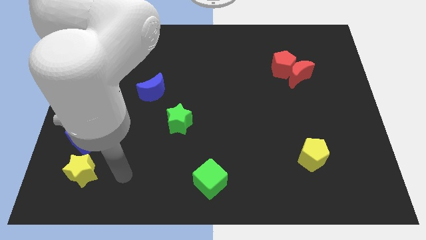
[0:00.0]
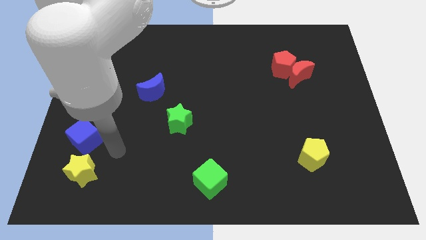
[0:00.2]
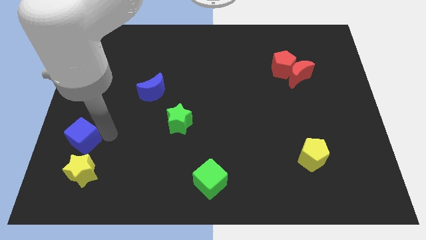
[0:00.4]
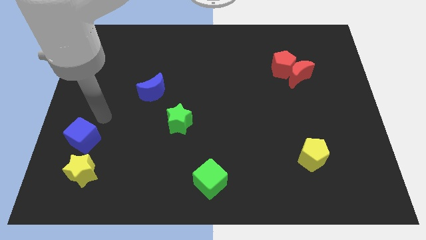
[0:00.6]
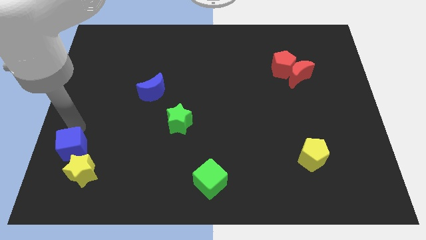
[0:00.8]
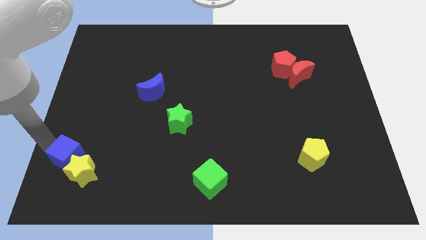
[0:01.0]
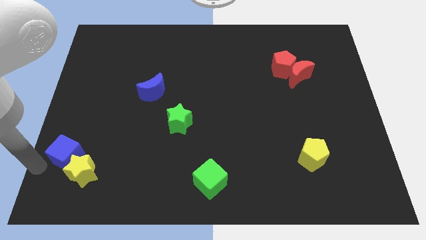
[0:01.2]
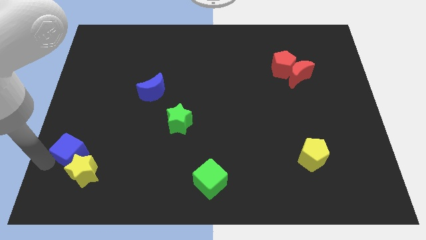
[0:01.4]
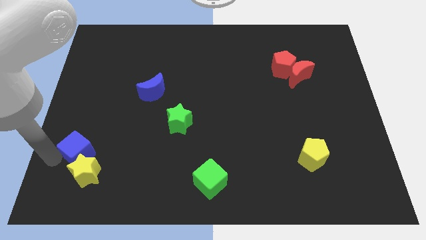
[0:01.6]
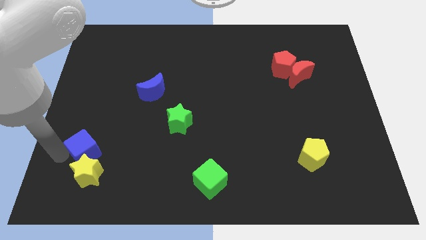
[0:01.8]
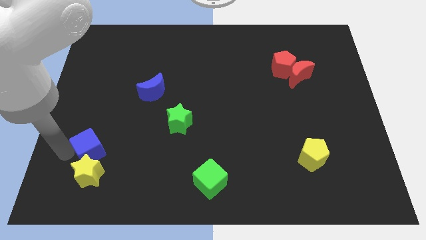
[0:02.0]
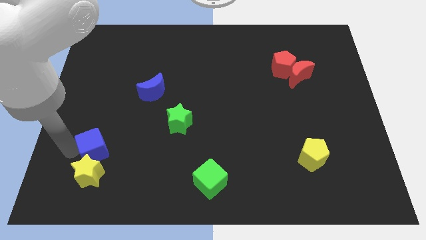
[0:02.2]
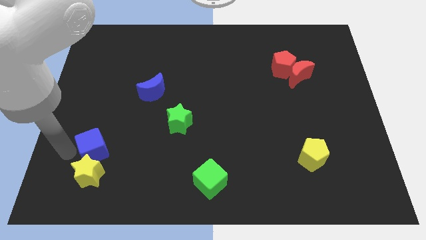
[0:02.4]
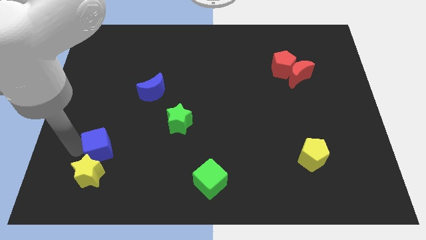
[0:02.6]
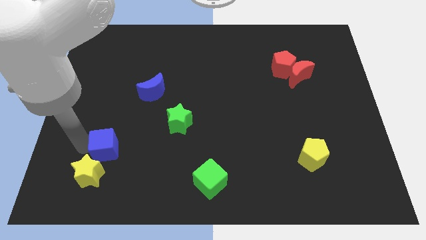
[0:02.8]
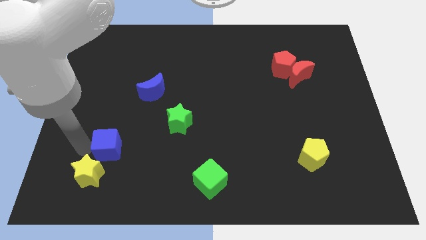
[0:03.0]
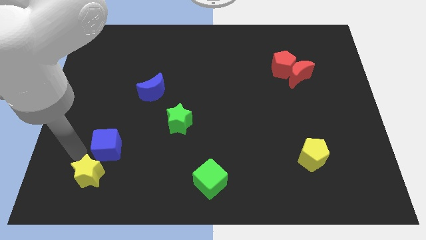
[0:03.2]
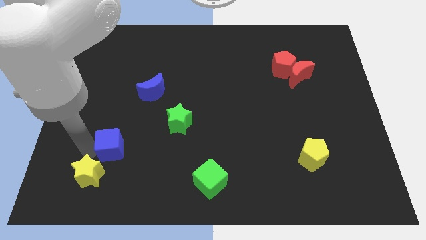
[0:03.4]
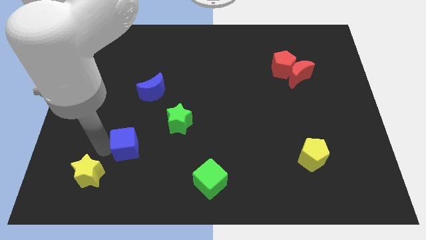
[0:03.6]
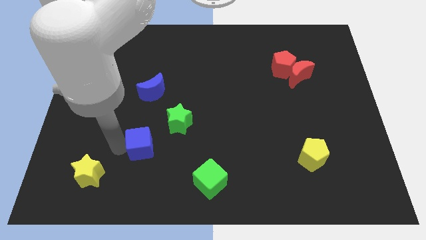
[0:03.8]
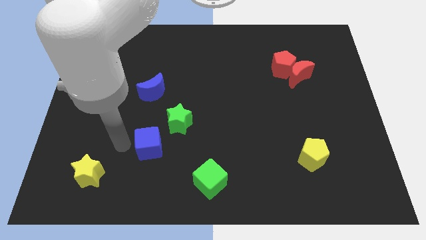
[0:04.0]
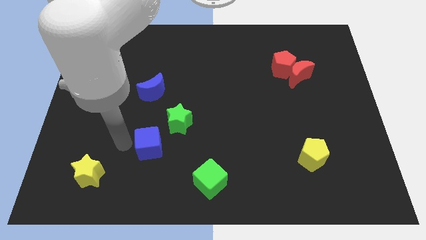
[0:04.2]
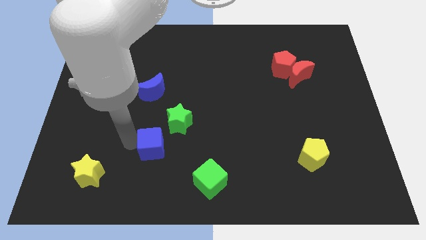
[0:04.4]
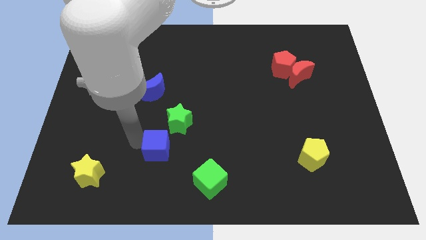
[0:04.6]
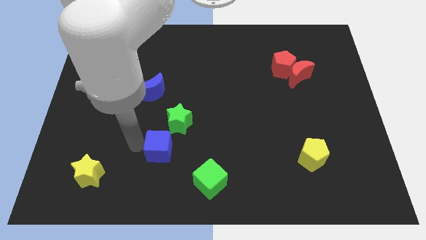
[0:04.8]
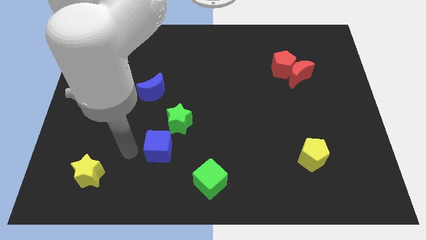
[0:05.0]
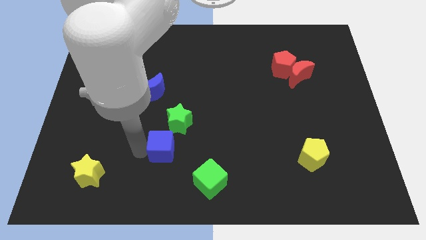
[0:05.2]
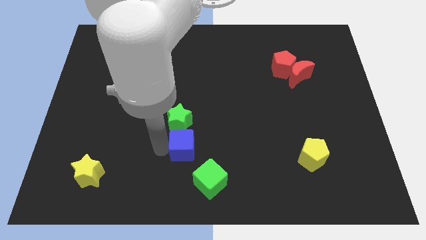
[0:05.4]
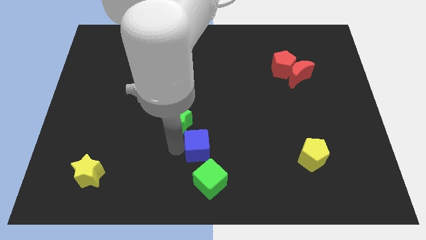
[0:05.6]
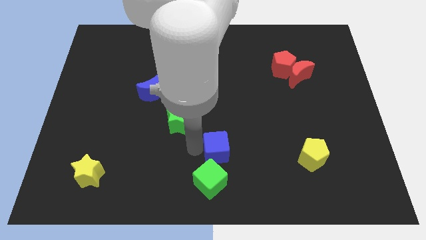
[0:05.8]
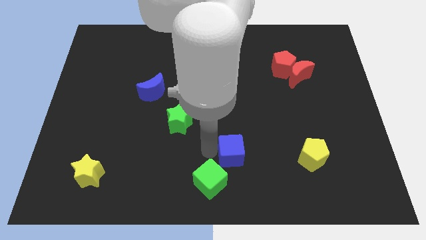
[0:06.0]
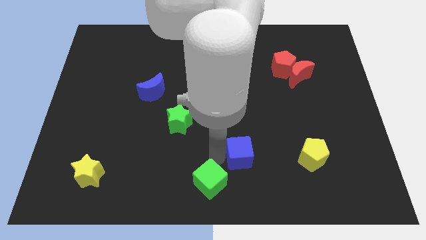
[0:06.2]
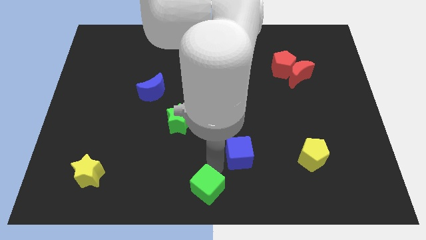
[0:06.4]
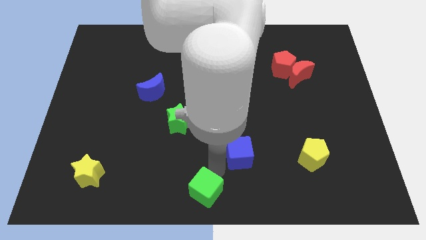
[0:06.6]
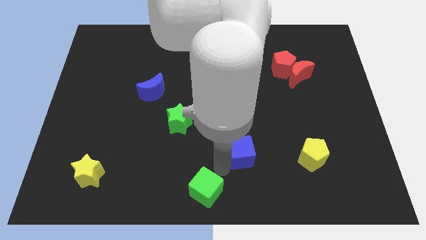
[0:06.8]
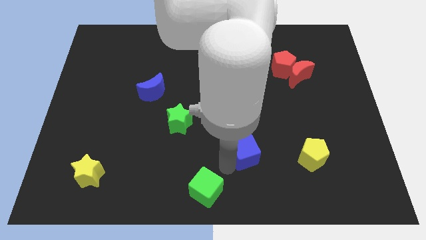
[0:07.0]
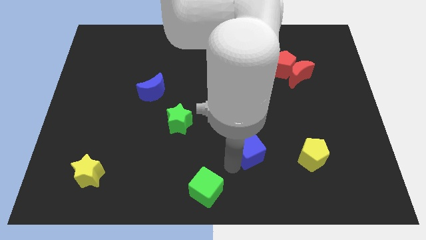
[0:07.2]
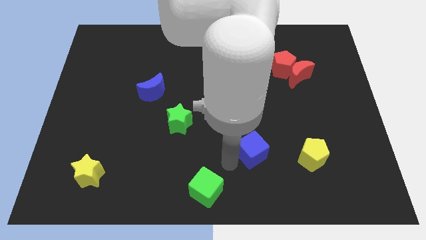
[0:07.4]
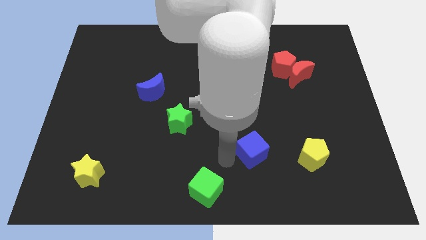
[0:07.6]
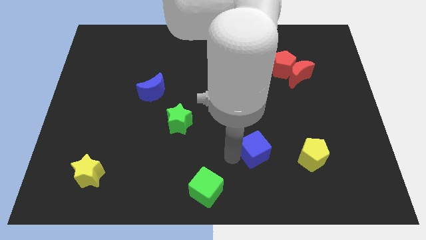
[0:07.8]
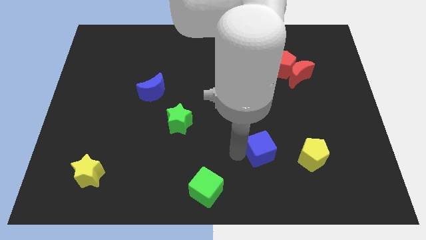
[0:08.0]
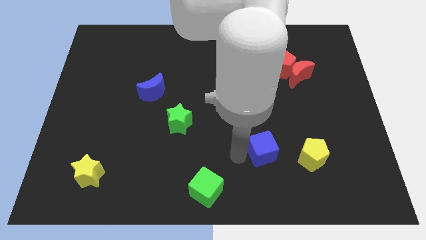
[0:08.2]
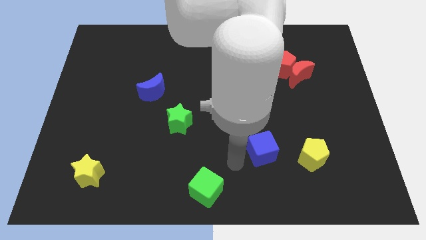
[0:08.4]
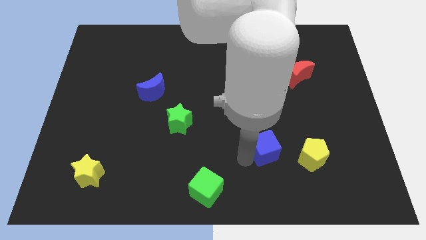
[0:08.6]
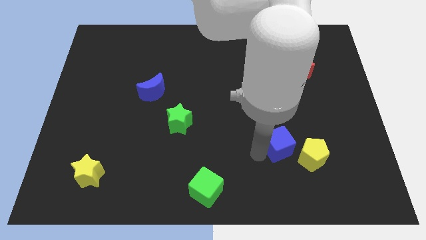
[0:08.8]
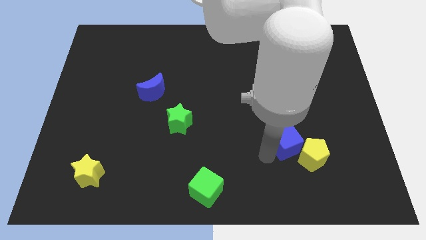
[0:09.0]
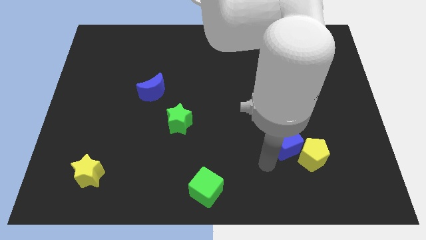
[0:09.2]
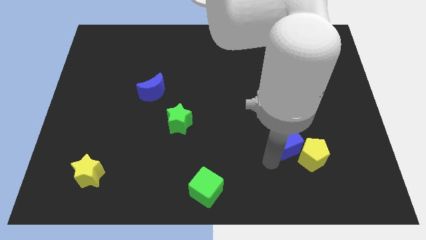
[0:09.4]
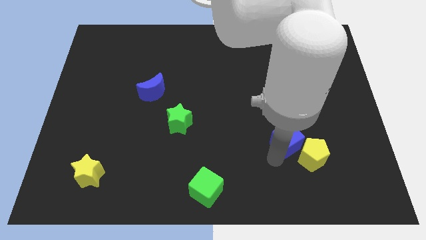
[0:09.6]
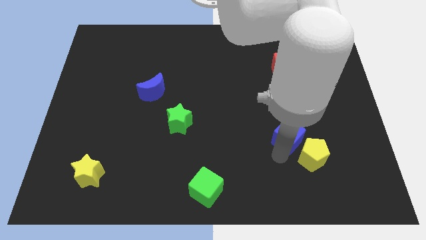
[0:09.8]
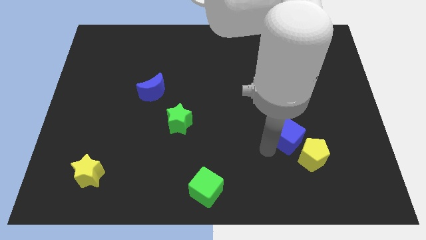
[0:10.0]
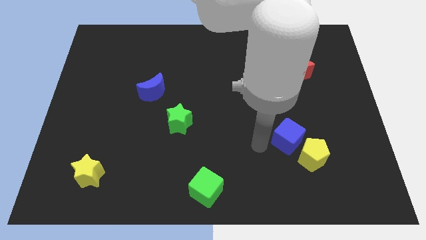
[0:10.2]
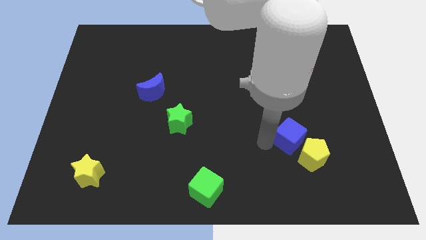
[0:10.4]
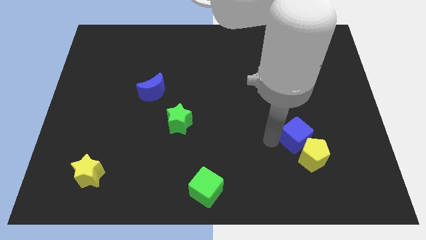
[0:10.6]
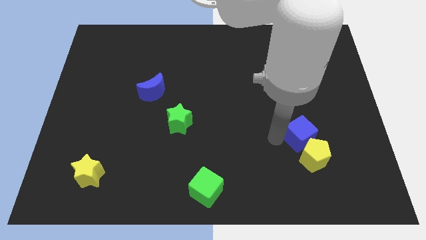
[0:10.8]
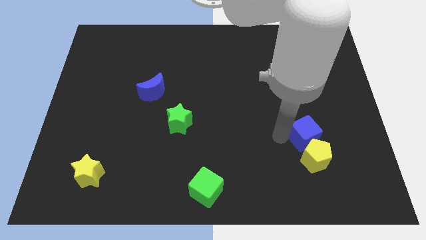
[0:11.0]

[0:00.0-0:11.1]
put the blue cube diagonally up and to the right of the yellow pentagon

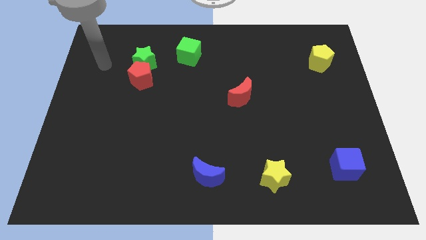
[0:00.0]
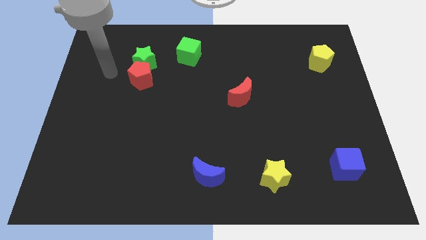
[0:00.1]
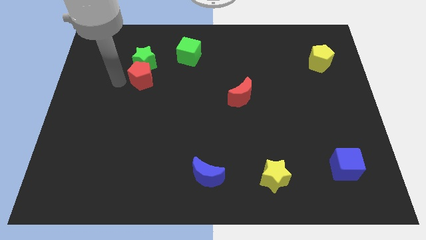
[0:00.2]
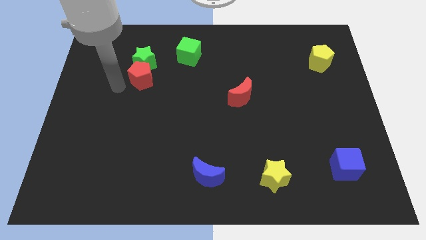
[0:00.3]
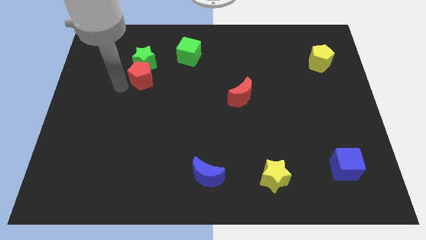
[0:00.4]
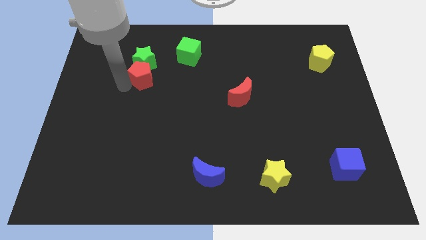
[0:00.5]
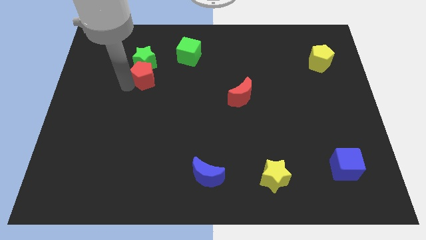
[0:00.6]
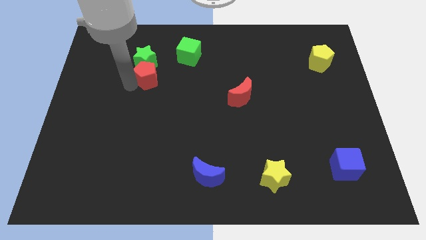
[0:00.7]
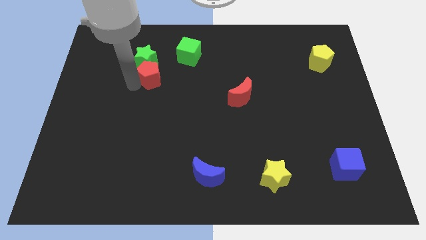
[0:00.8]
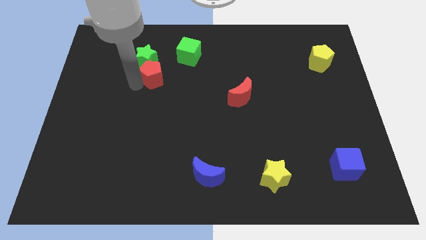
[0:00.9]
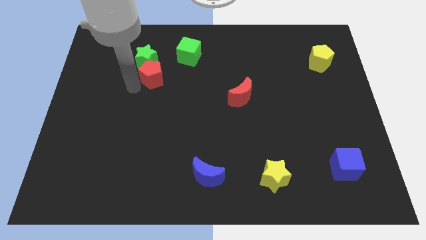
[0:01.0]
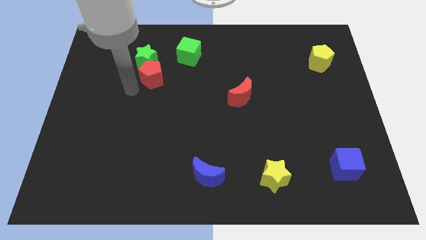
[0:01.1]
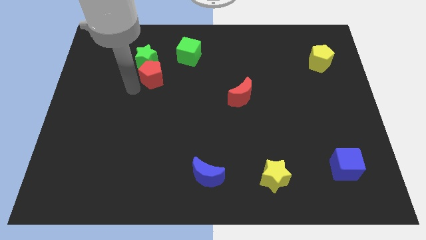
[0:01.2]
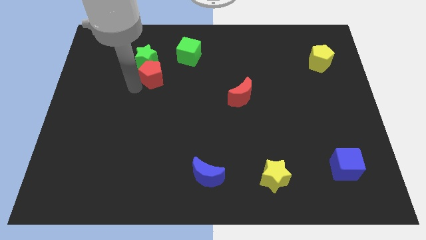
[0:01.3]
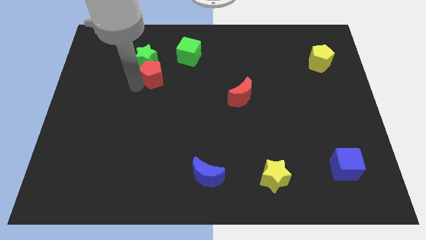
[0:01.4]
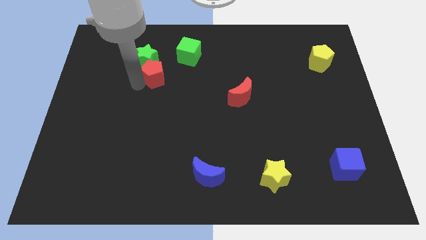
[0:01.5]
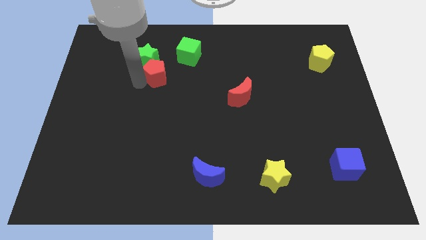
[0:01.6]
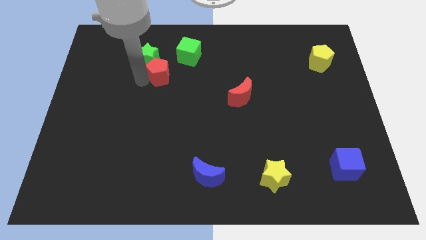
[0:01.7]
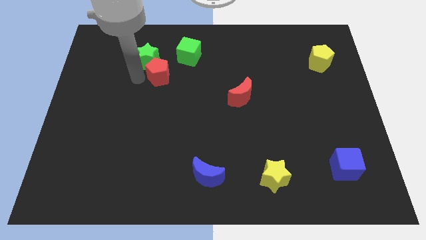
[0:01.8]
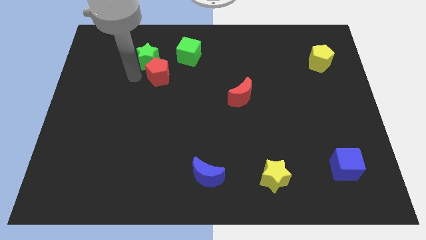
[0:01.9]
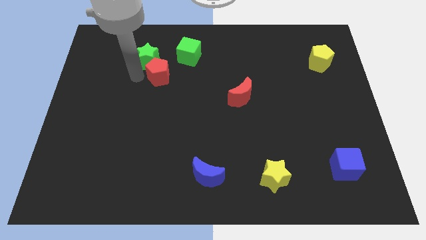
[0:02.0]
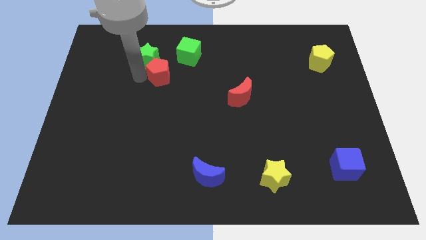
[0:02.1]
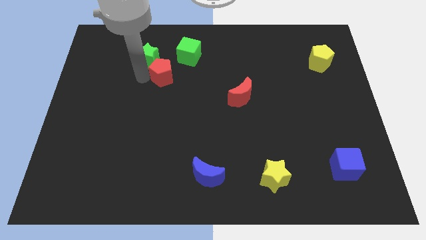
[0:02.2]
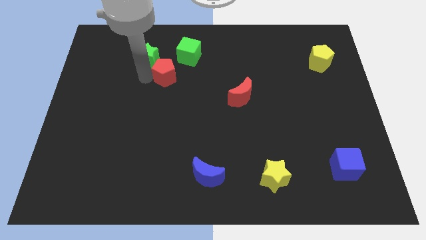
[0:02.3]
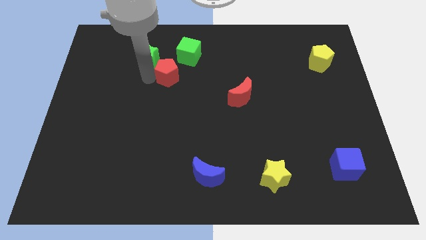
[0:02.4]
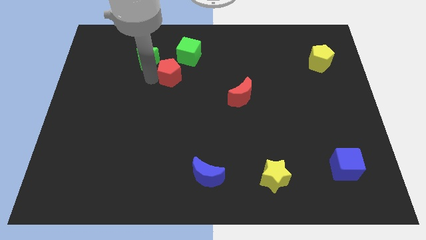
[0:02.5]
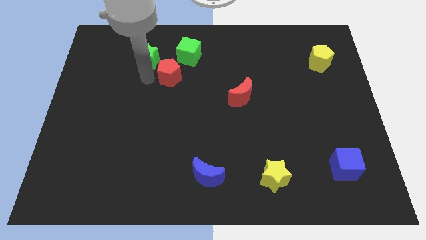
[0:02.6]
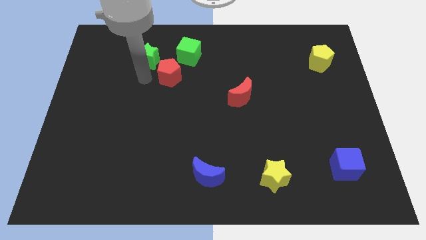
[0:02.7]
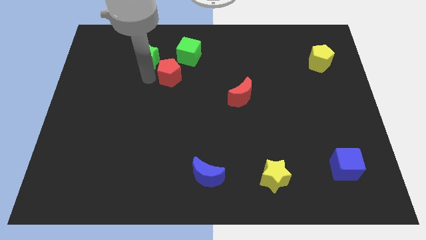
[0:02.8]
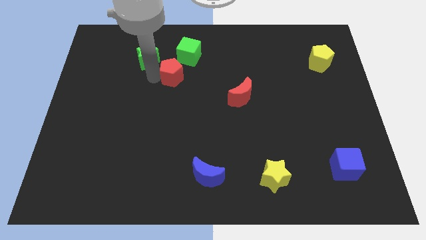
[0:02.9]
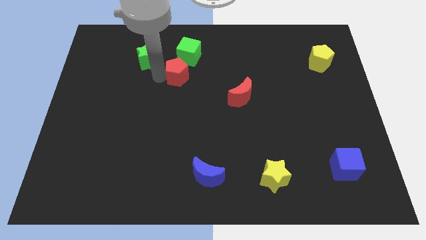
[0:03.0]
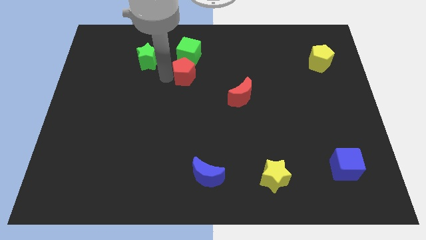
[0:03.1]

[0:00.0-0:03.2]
move the red pentagon right of the green star
